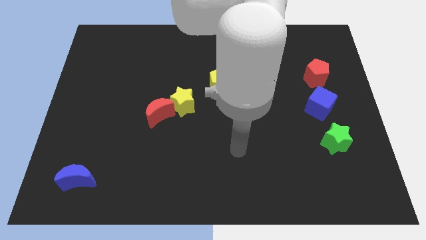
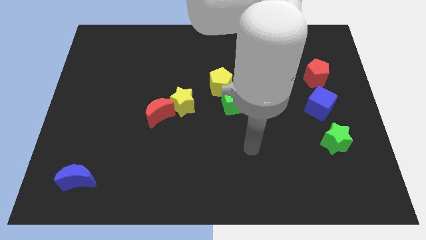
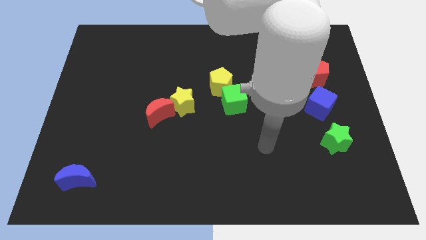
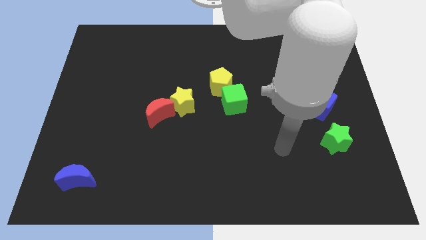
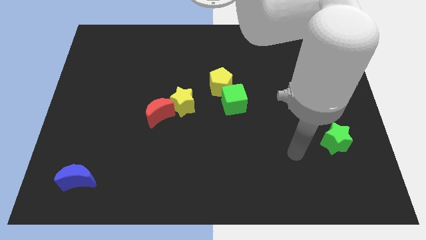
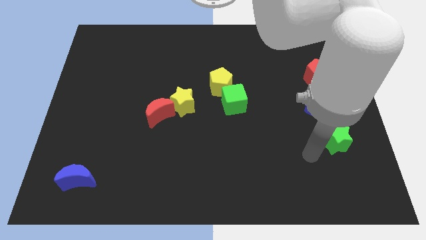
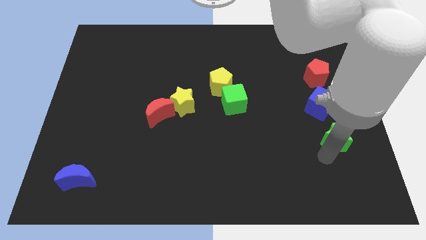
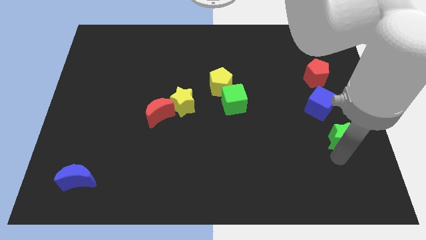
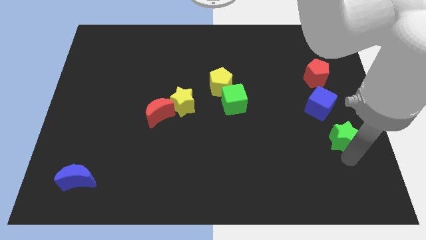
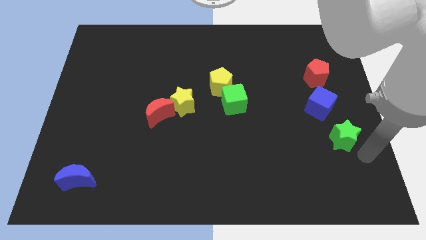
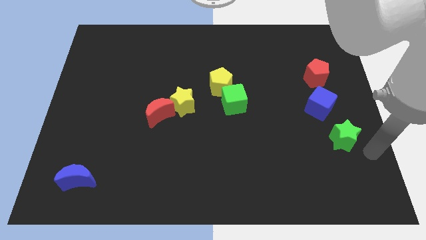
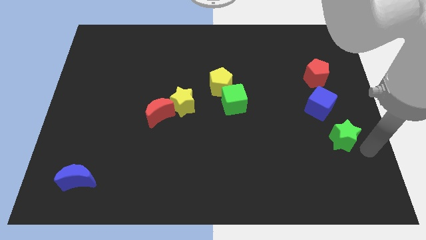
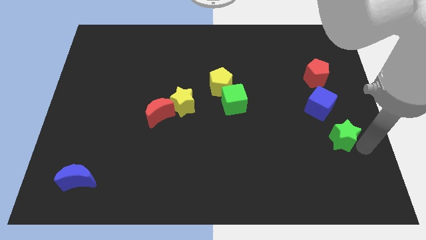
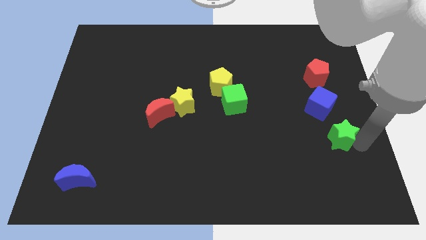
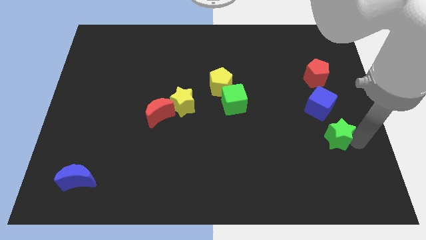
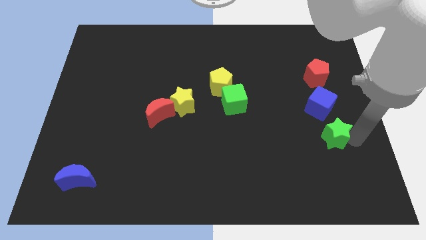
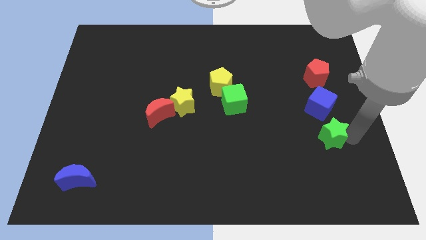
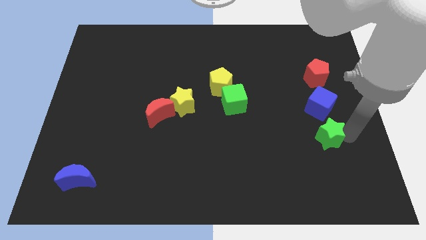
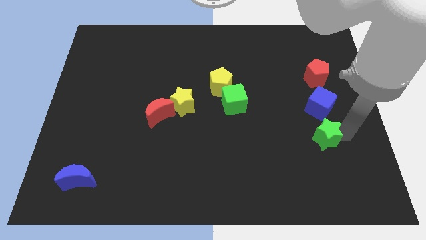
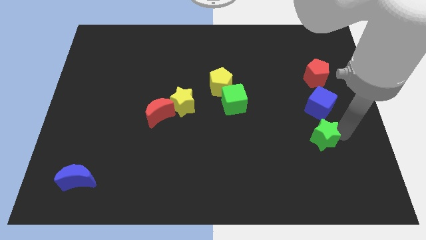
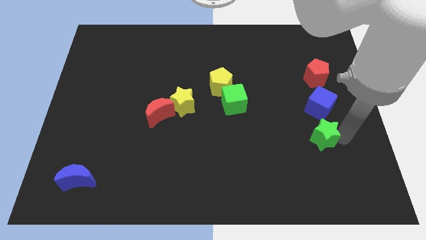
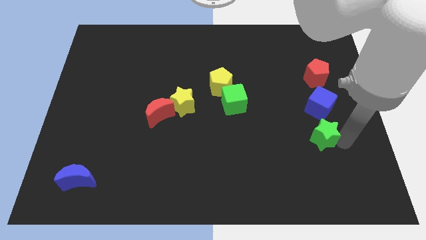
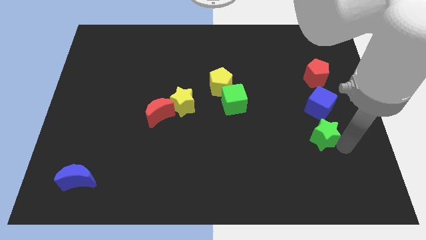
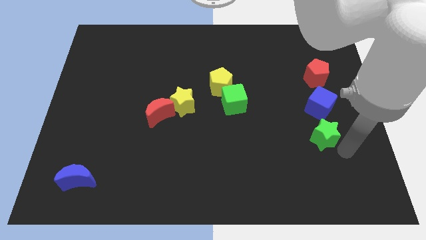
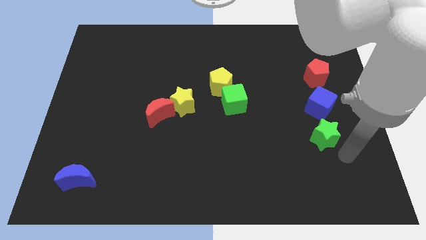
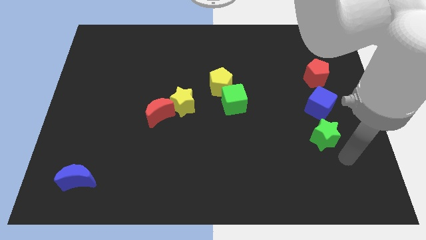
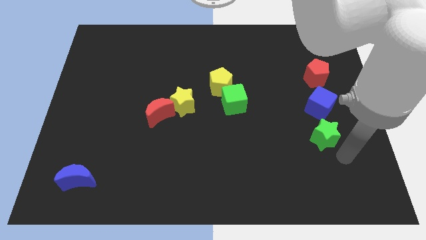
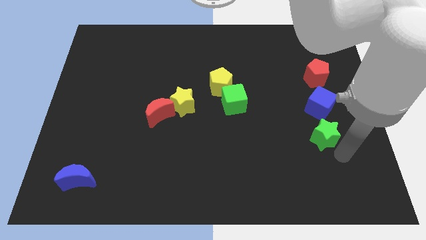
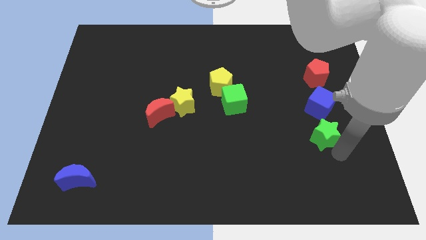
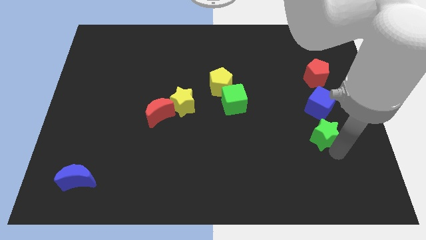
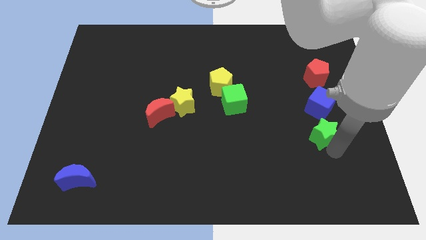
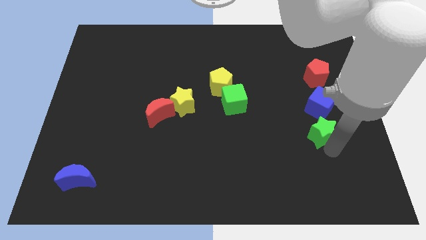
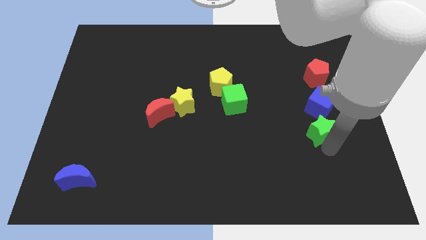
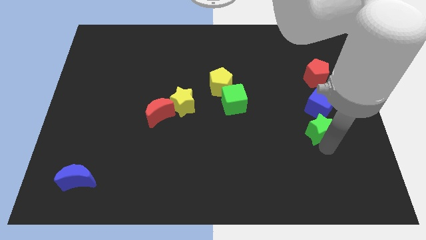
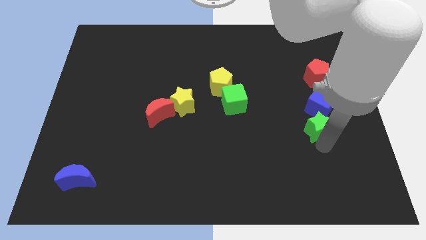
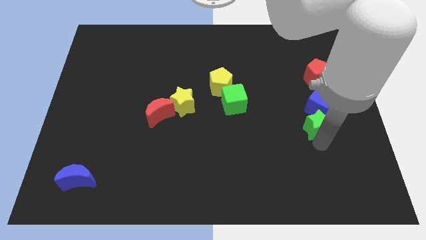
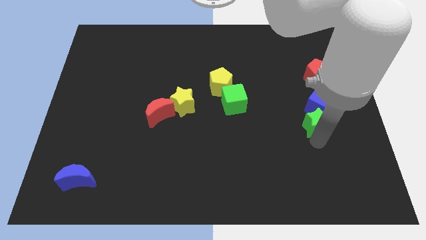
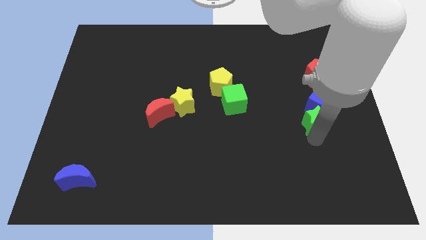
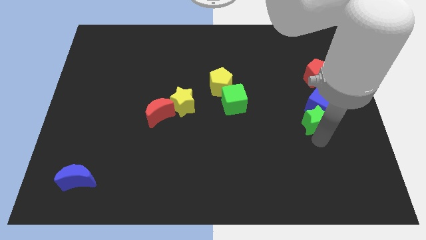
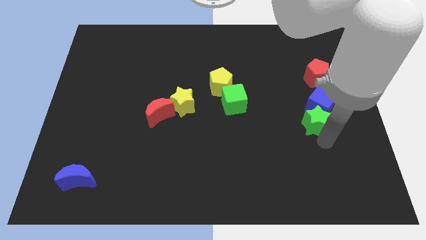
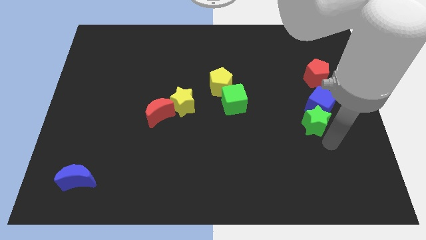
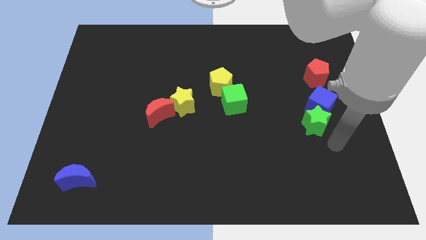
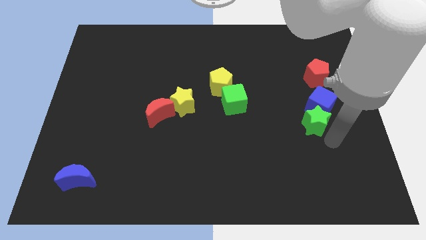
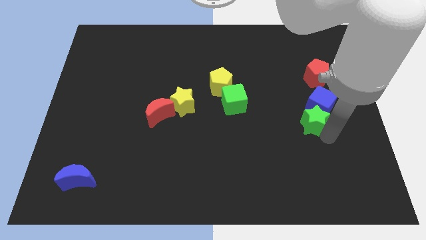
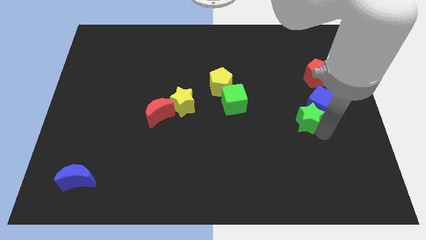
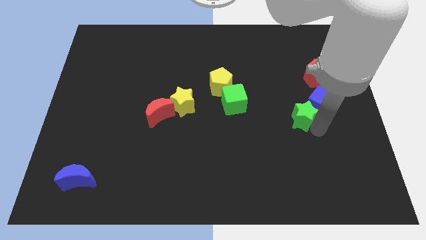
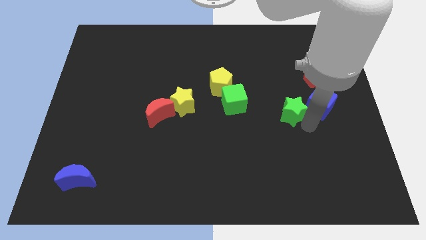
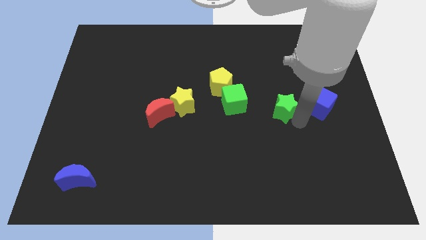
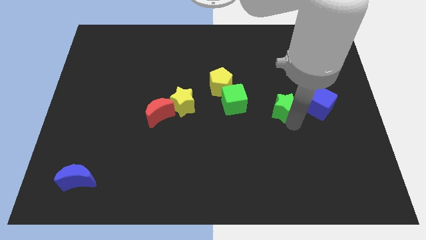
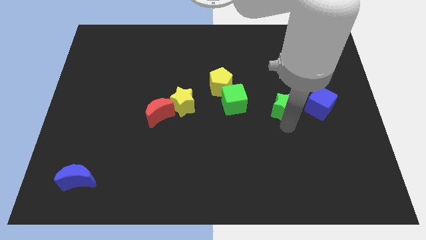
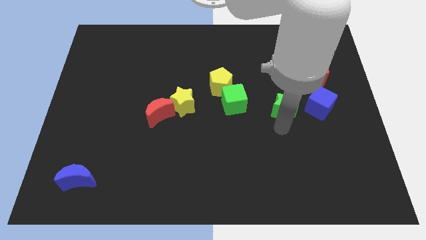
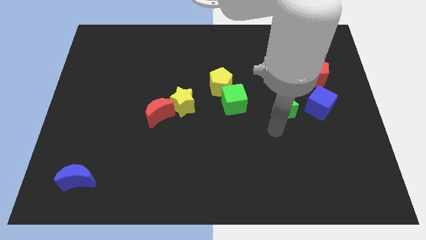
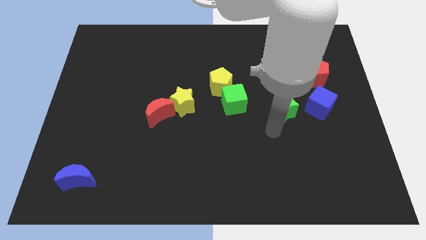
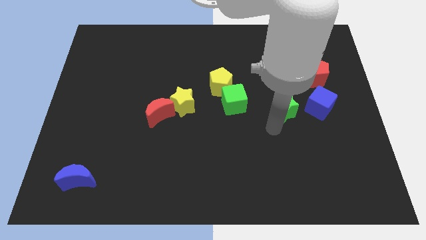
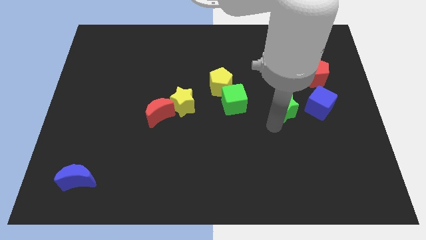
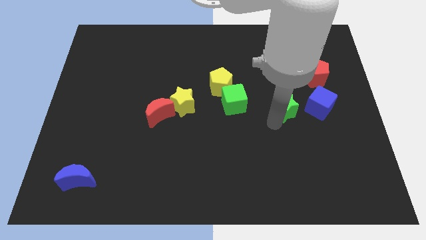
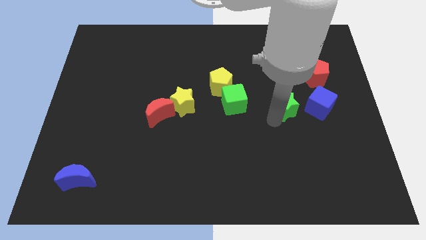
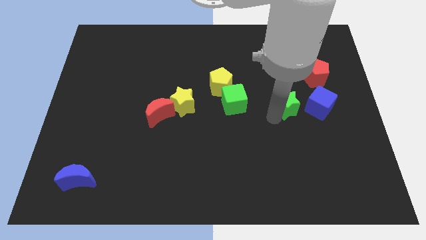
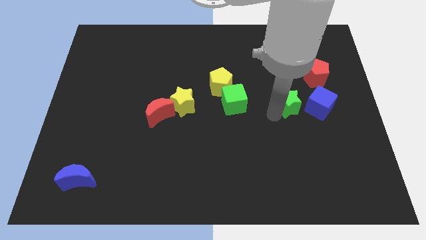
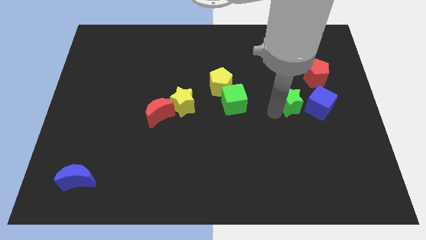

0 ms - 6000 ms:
put the green star diagonally up and to the left of the blue cube

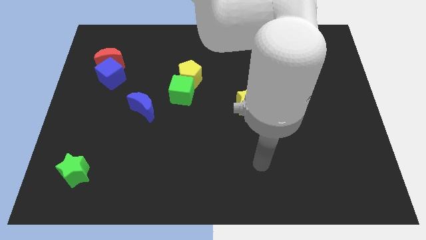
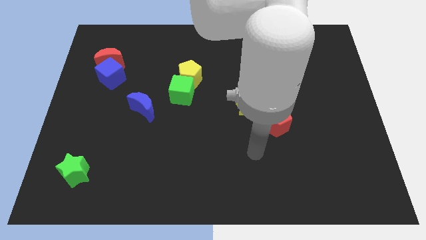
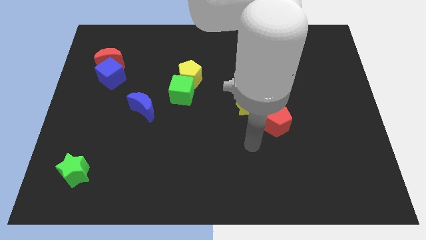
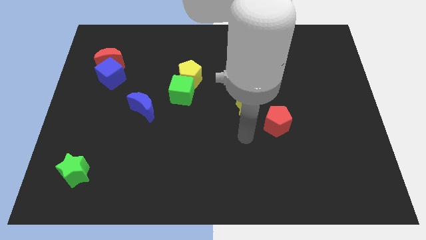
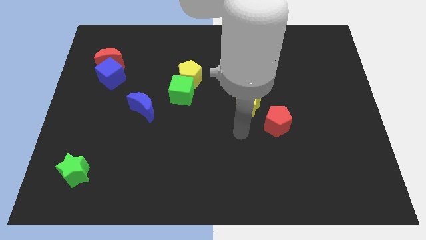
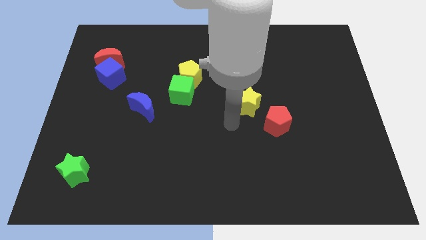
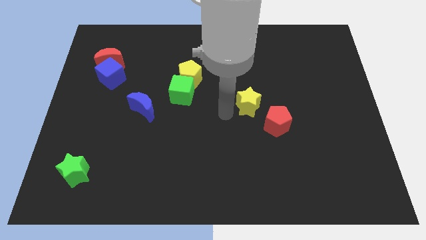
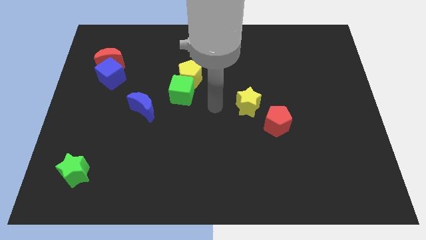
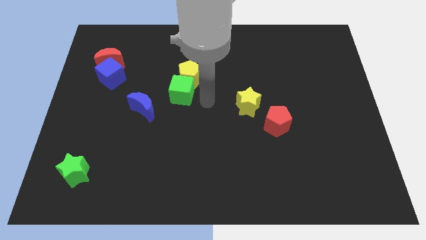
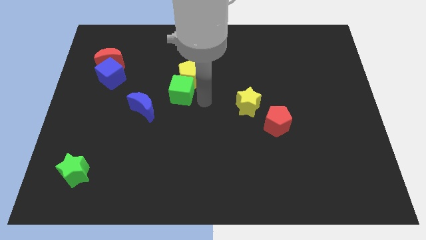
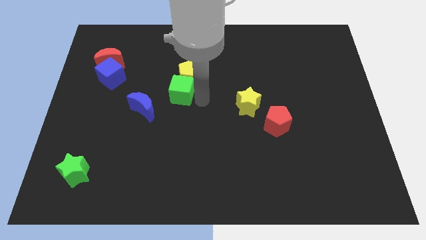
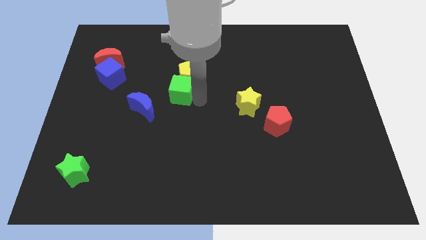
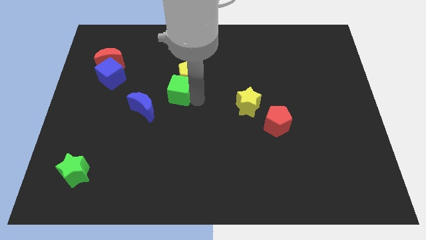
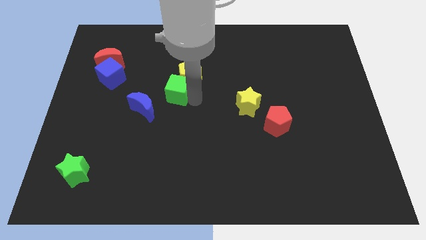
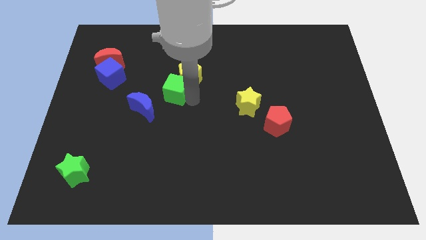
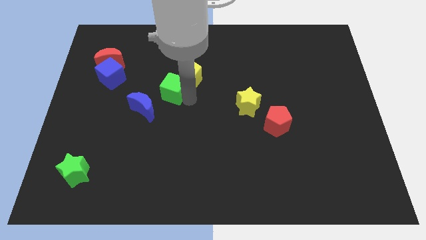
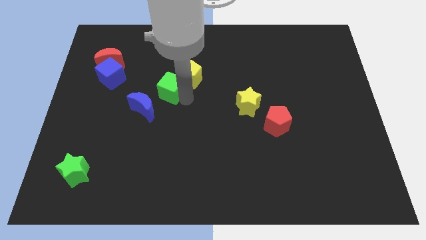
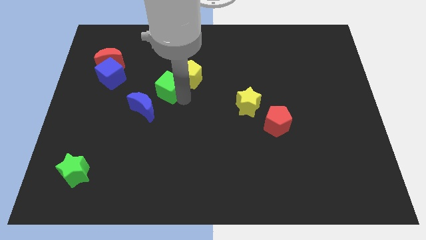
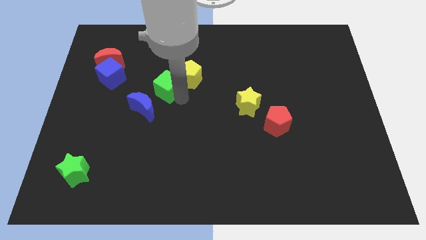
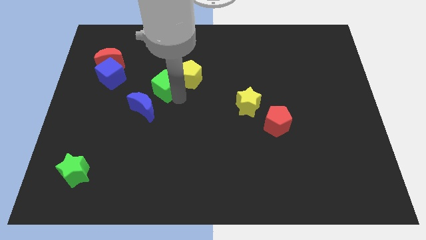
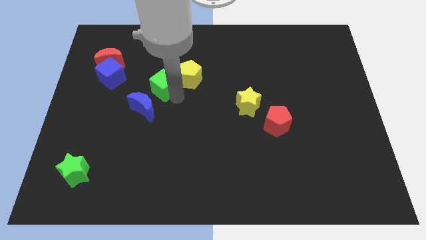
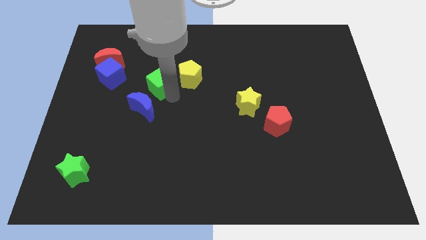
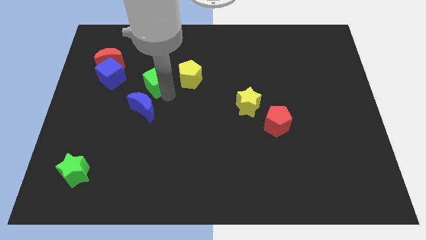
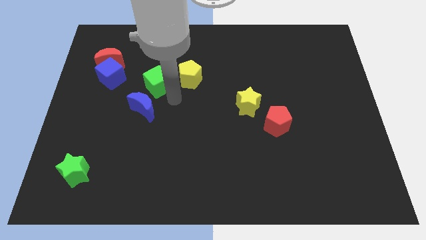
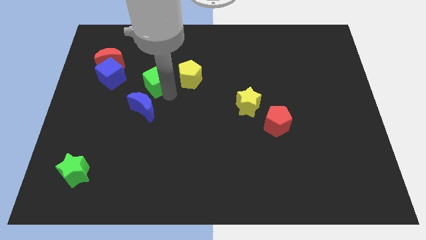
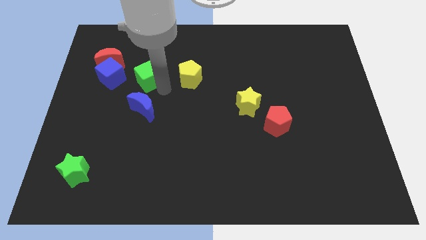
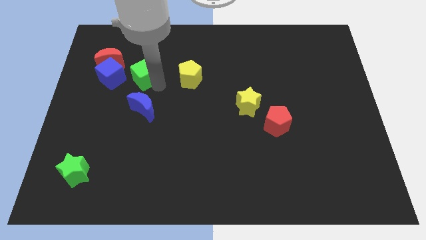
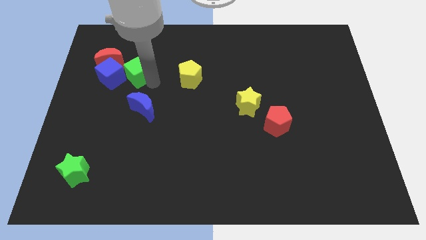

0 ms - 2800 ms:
slide the green cube to the top right side of the blue cube
